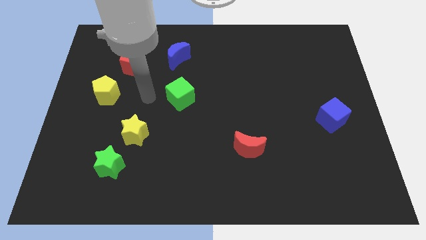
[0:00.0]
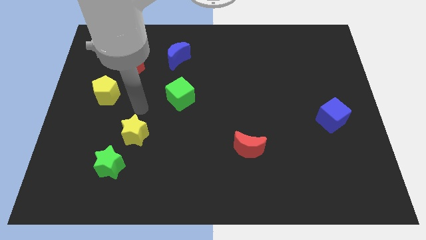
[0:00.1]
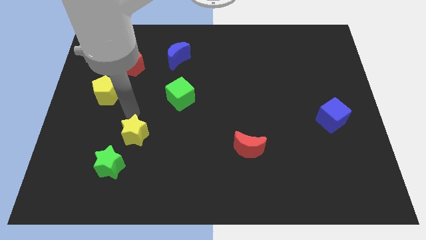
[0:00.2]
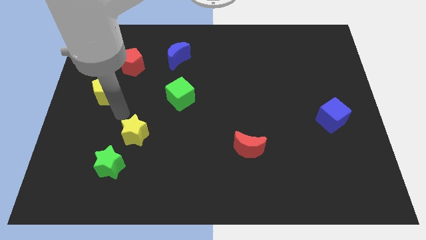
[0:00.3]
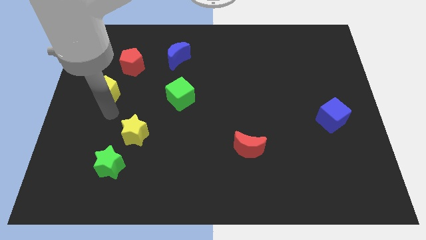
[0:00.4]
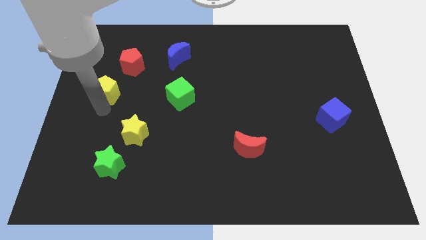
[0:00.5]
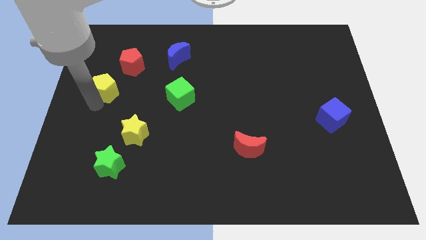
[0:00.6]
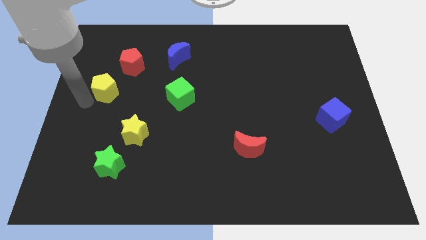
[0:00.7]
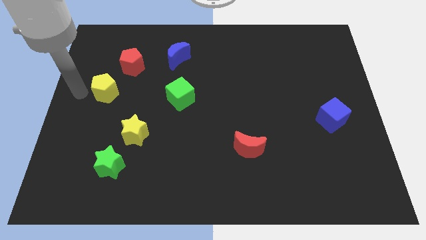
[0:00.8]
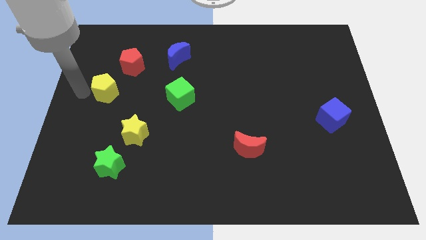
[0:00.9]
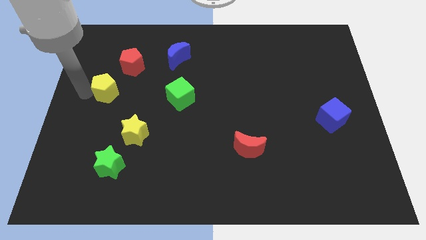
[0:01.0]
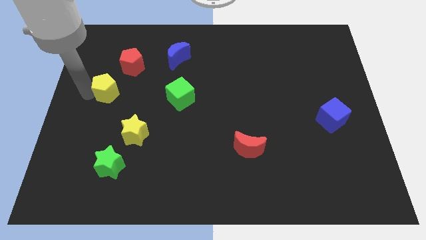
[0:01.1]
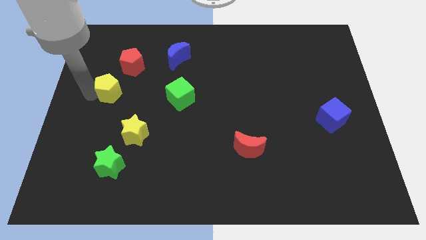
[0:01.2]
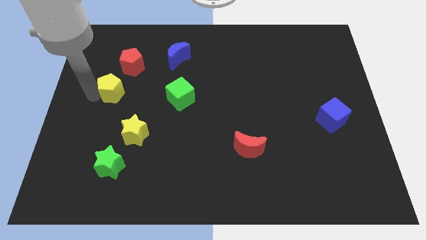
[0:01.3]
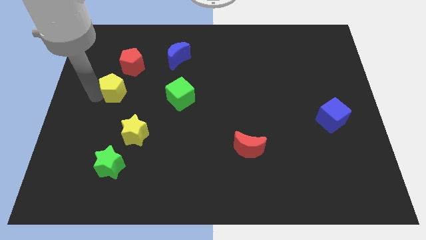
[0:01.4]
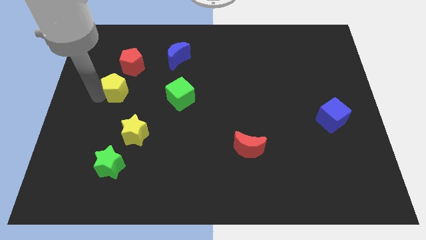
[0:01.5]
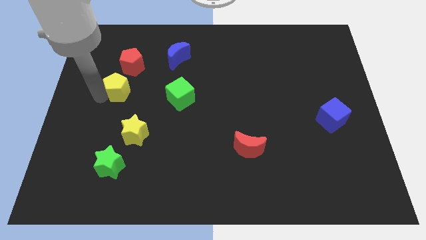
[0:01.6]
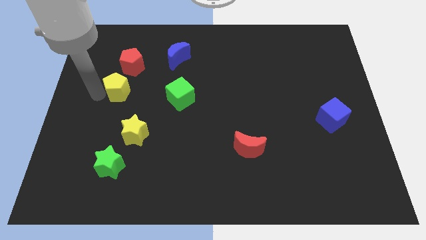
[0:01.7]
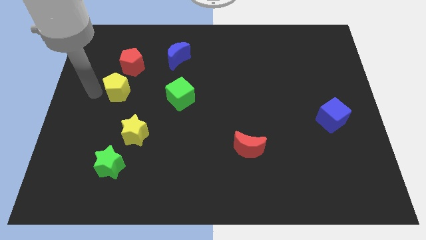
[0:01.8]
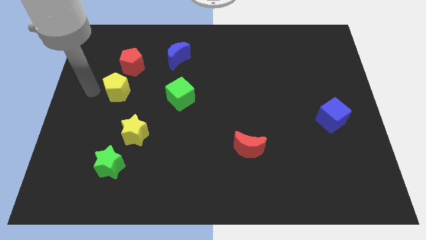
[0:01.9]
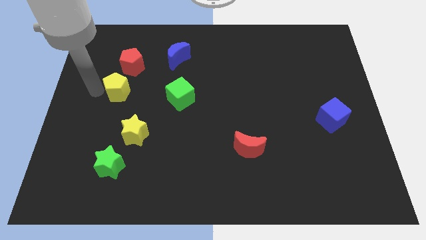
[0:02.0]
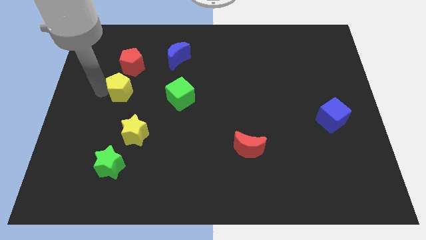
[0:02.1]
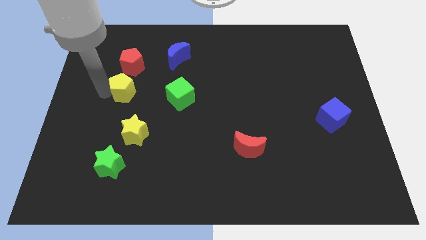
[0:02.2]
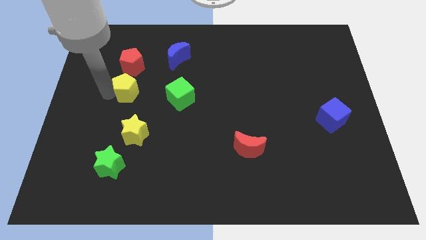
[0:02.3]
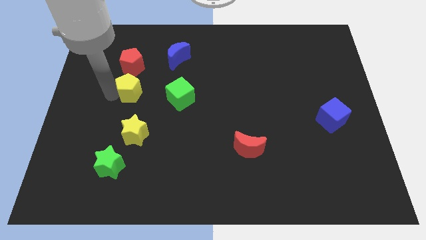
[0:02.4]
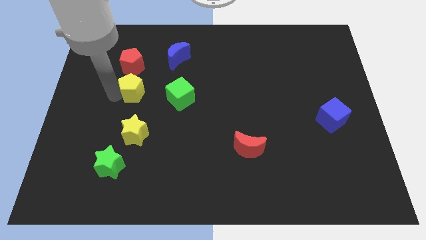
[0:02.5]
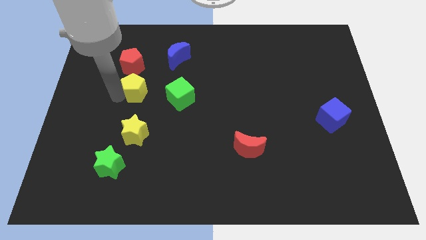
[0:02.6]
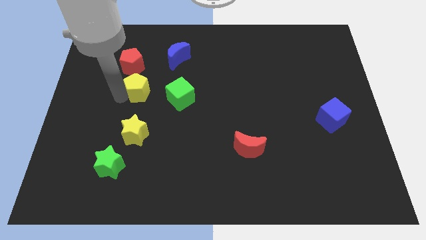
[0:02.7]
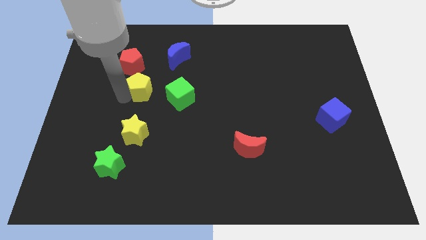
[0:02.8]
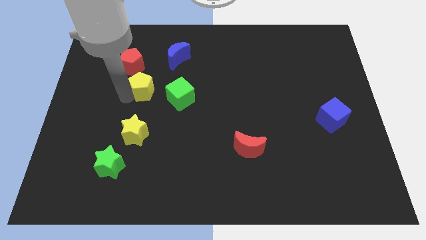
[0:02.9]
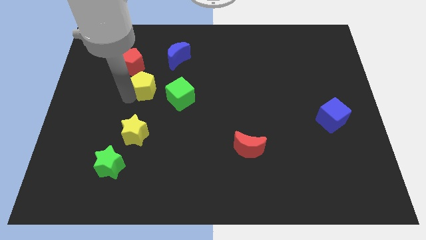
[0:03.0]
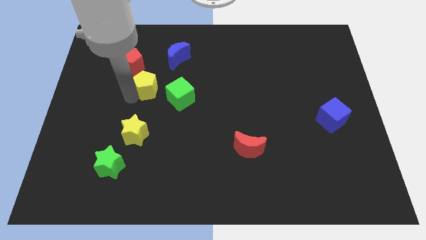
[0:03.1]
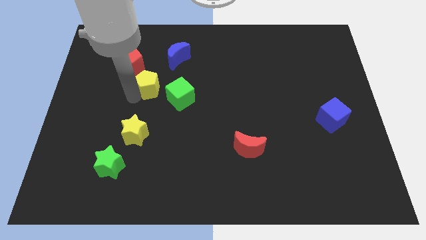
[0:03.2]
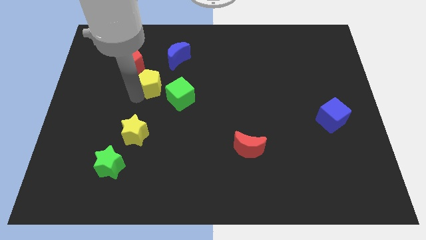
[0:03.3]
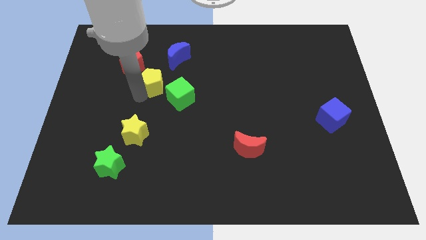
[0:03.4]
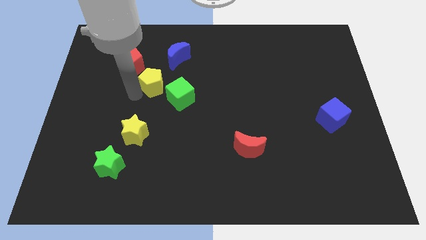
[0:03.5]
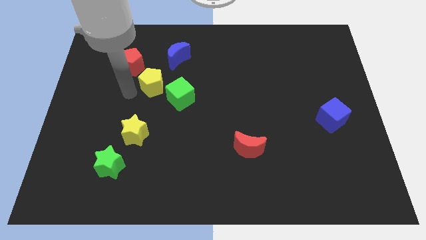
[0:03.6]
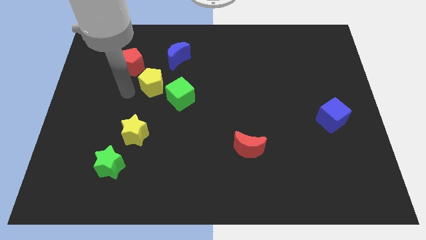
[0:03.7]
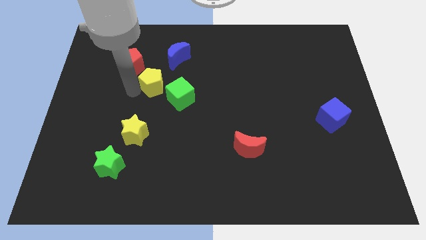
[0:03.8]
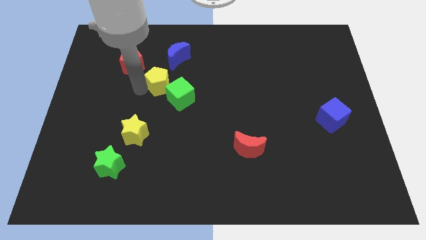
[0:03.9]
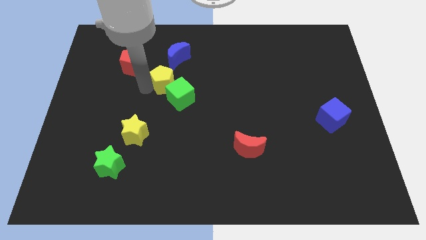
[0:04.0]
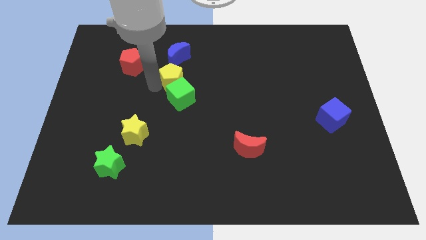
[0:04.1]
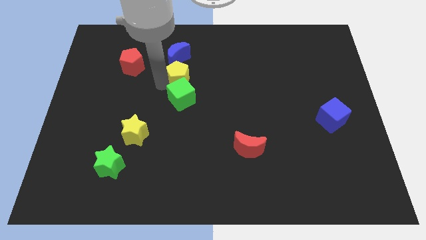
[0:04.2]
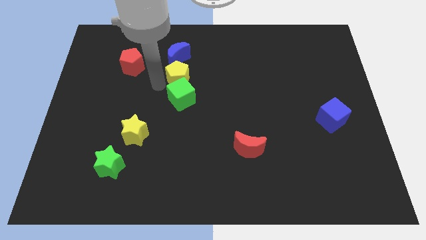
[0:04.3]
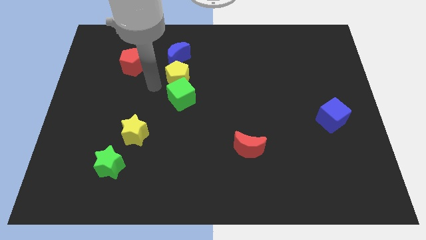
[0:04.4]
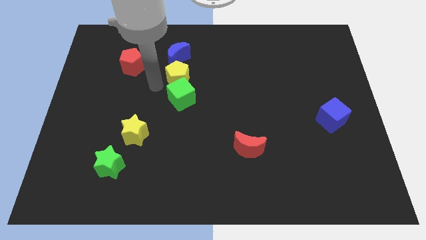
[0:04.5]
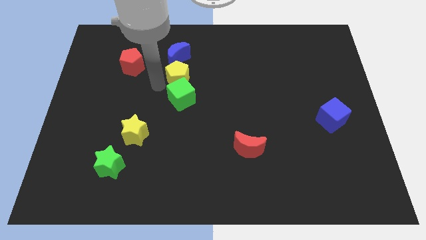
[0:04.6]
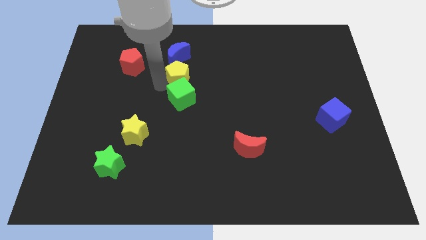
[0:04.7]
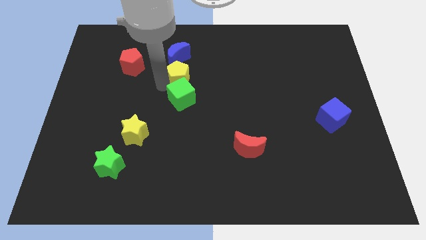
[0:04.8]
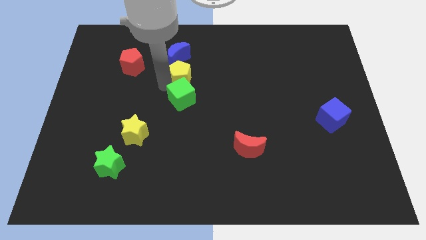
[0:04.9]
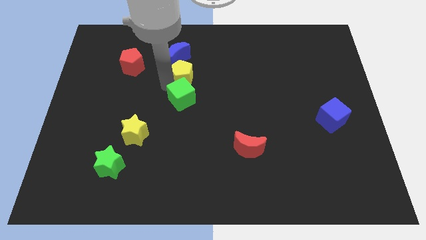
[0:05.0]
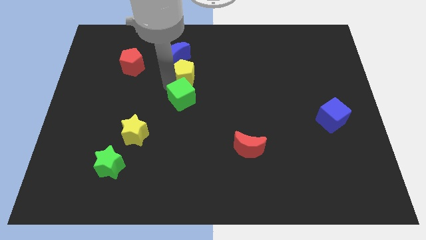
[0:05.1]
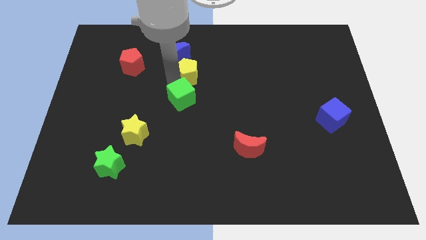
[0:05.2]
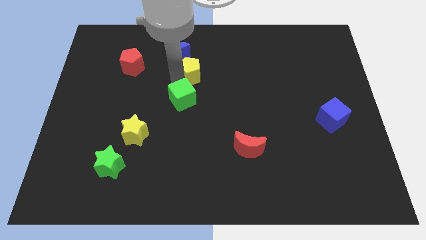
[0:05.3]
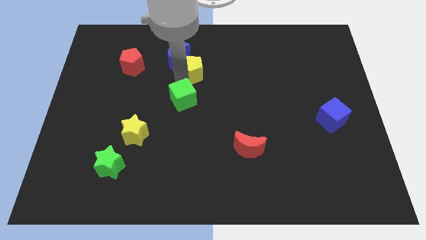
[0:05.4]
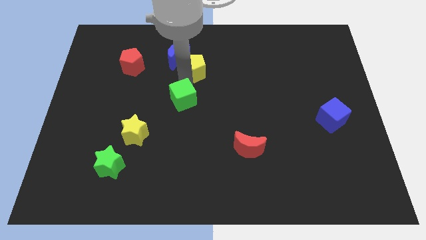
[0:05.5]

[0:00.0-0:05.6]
move the yellow pentagon just right of the blue moon

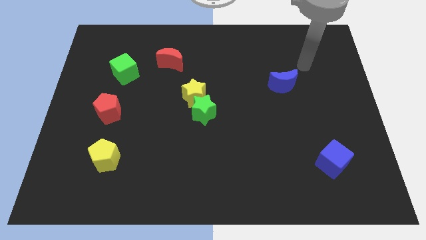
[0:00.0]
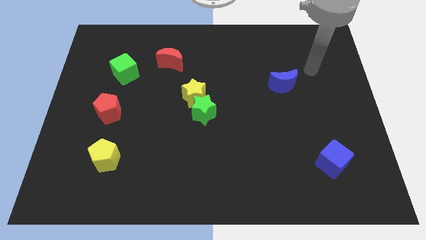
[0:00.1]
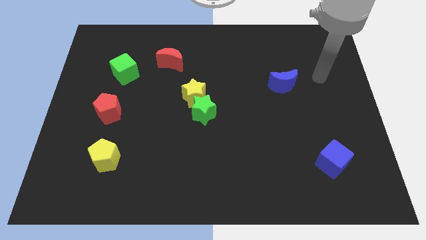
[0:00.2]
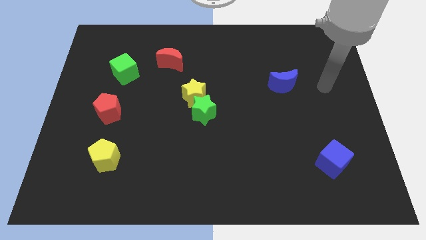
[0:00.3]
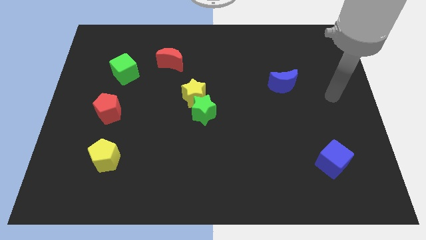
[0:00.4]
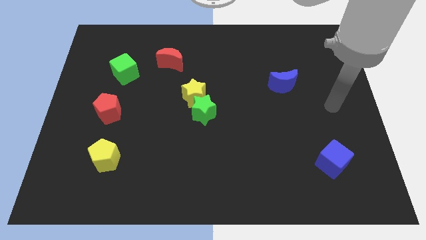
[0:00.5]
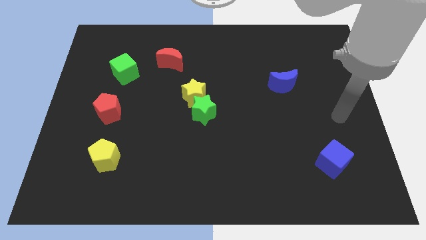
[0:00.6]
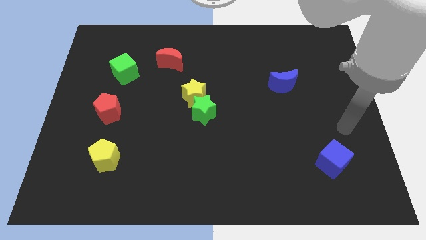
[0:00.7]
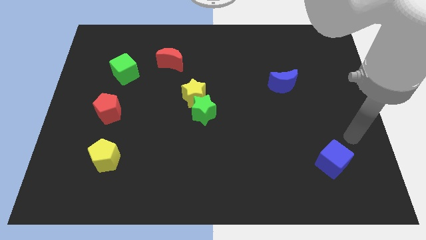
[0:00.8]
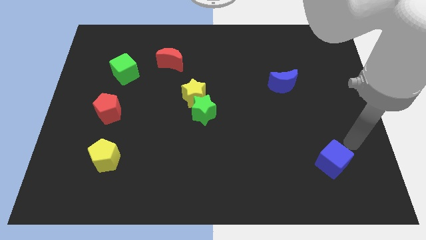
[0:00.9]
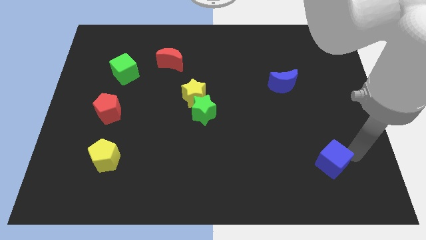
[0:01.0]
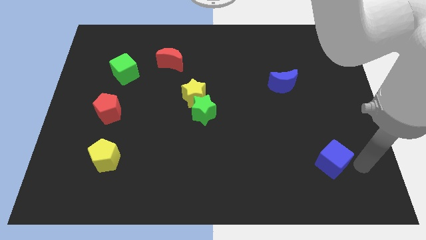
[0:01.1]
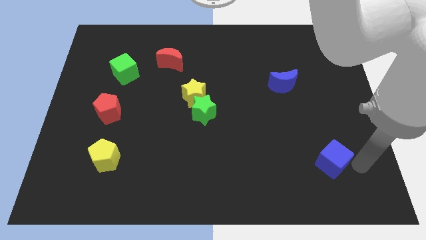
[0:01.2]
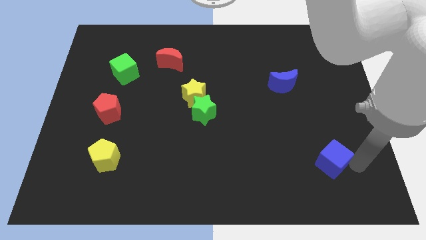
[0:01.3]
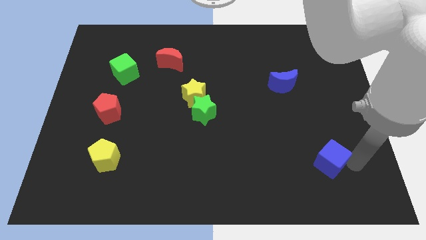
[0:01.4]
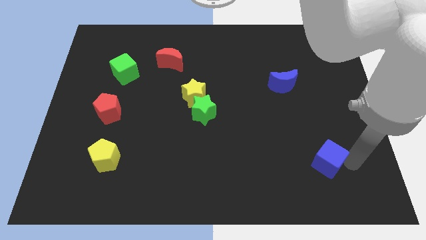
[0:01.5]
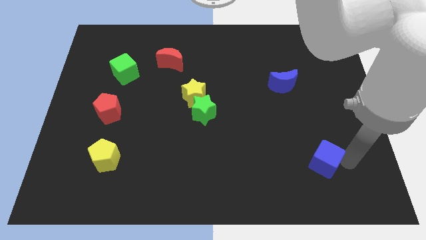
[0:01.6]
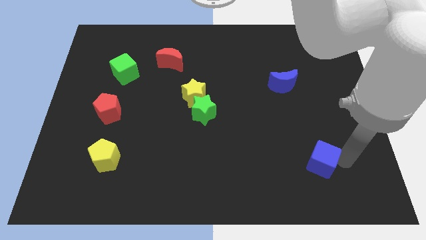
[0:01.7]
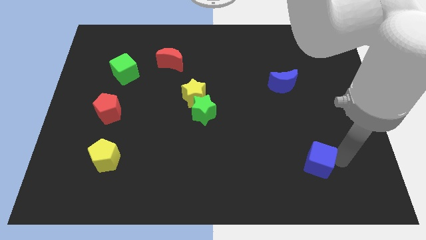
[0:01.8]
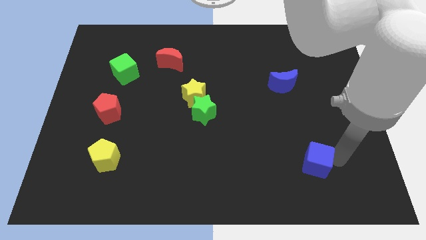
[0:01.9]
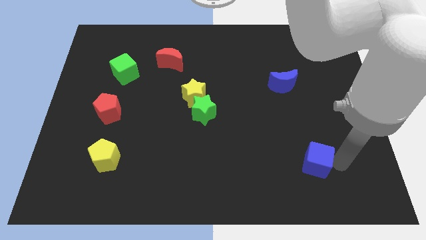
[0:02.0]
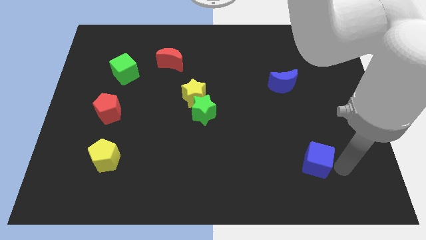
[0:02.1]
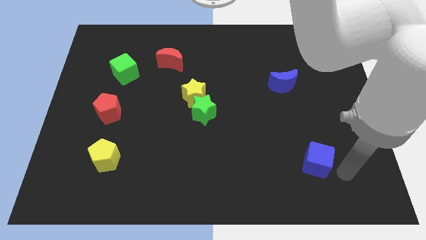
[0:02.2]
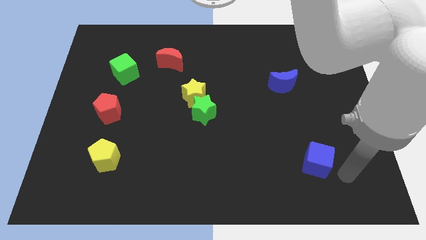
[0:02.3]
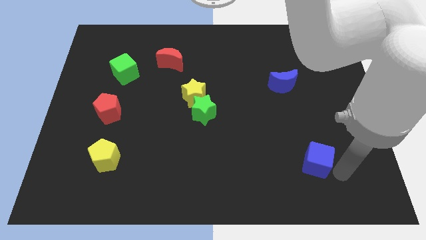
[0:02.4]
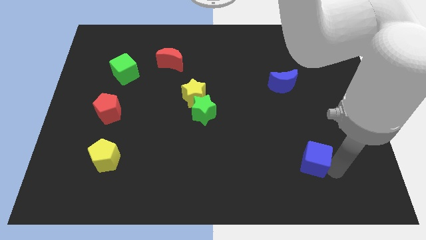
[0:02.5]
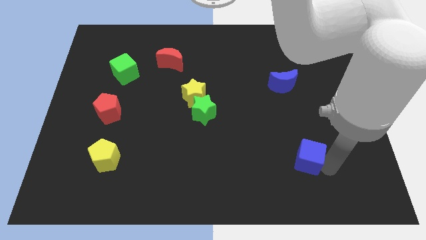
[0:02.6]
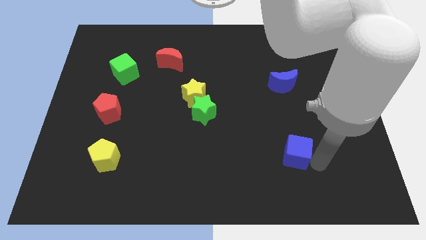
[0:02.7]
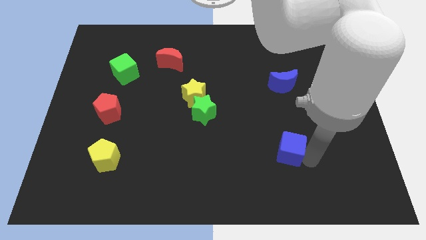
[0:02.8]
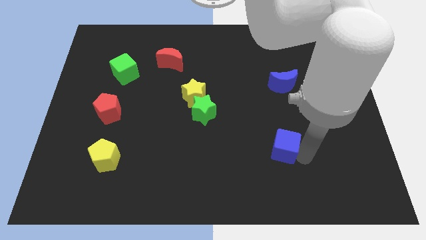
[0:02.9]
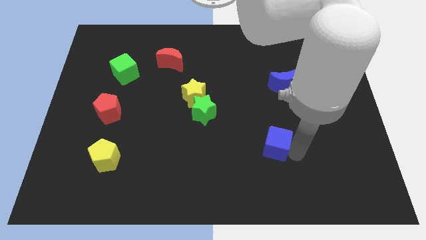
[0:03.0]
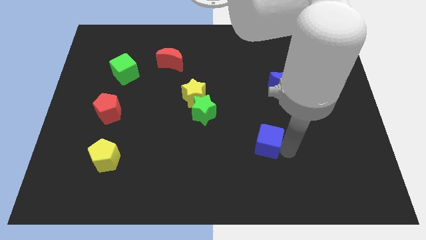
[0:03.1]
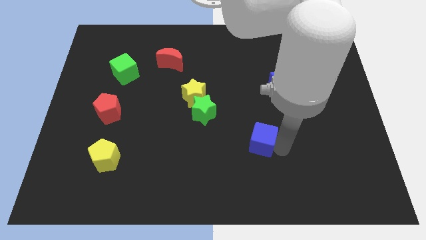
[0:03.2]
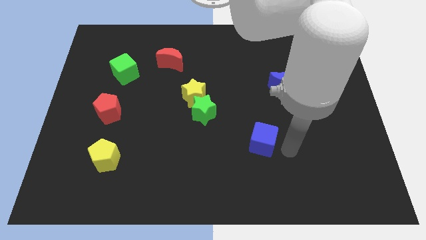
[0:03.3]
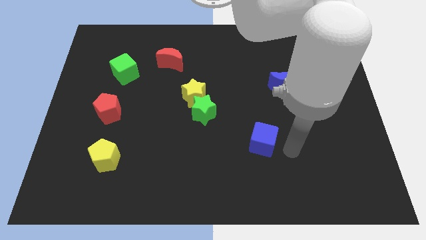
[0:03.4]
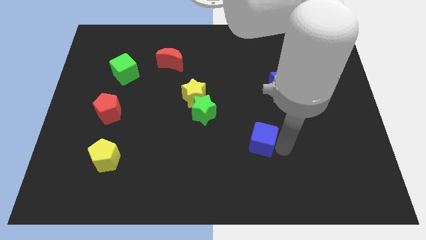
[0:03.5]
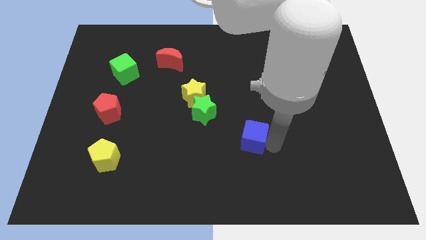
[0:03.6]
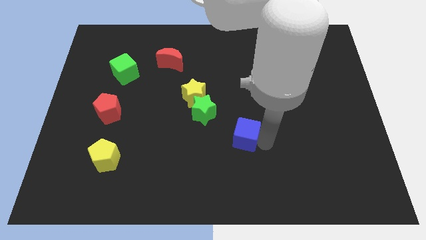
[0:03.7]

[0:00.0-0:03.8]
slide the blue cube to the bottom right of the green star
